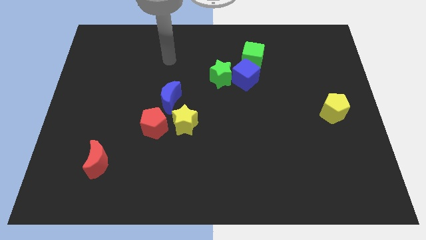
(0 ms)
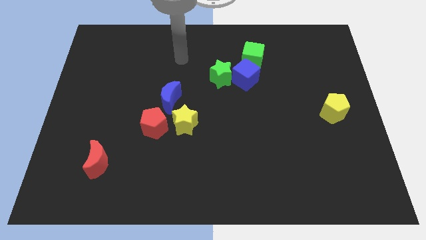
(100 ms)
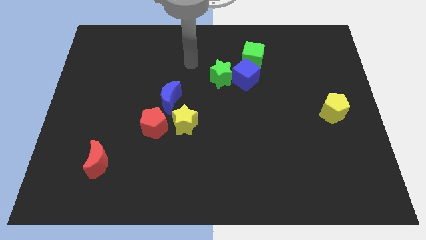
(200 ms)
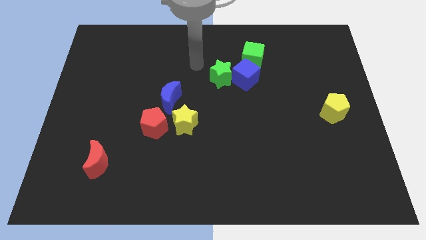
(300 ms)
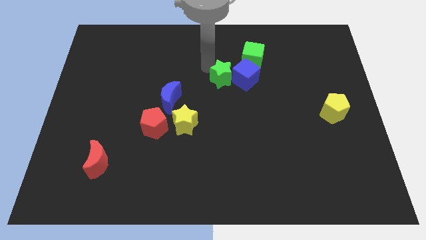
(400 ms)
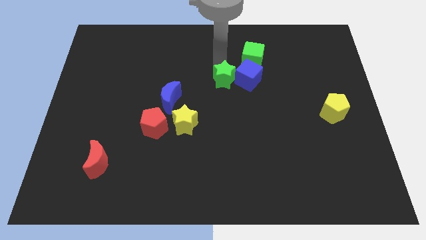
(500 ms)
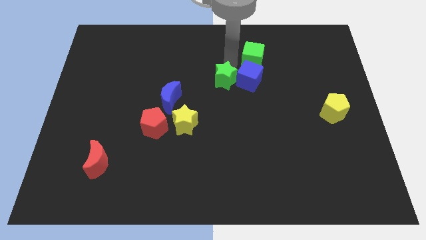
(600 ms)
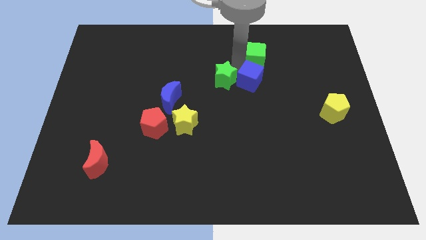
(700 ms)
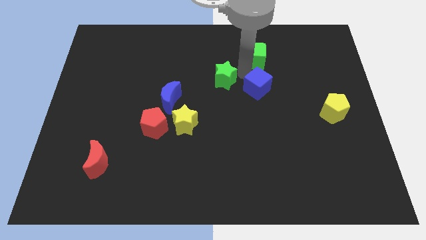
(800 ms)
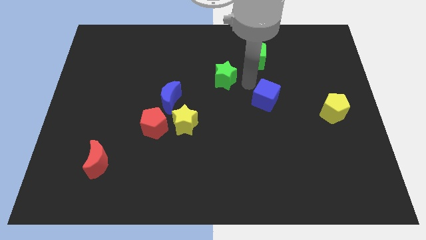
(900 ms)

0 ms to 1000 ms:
move the green star away from the blue cube

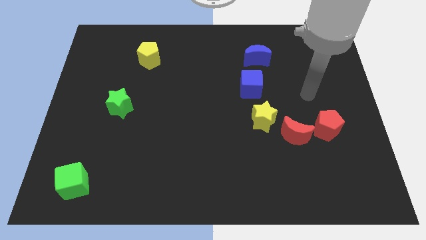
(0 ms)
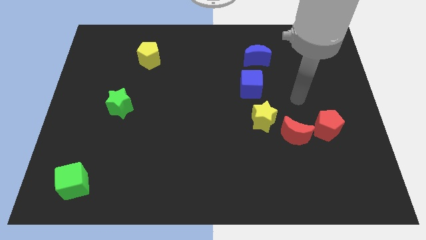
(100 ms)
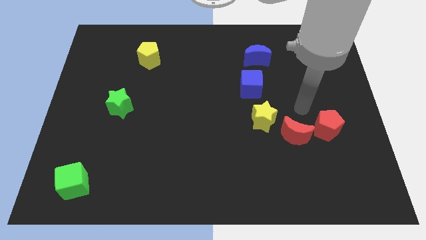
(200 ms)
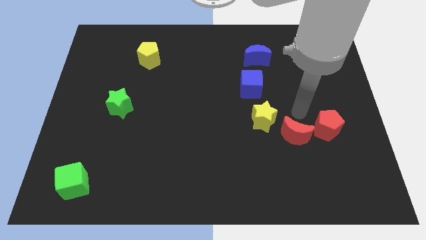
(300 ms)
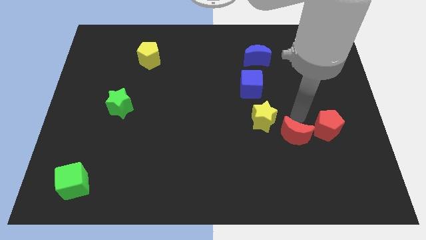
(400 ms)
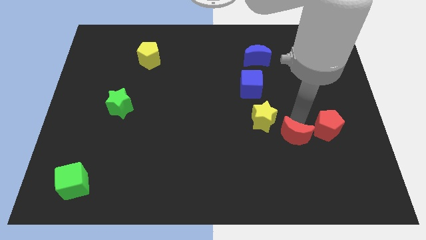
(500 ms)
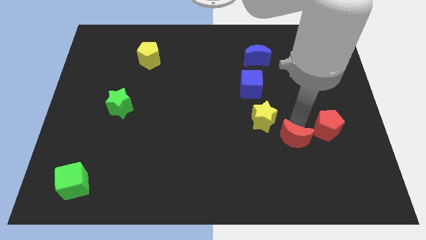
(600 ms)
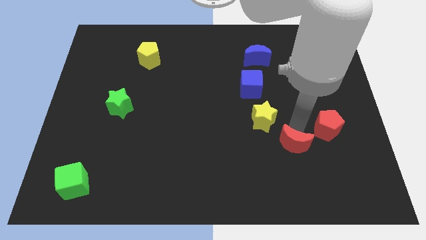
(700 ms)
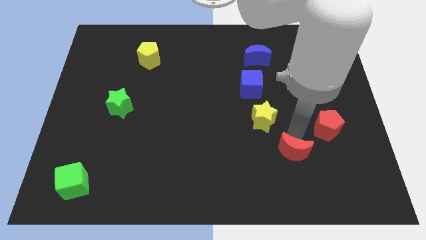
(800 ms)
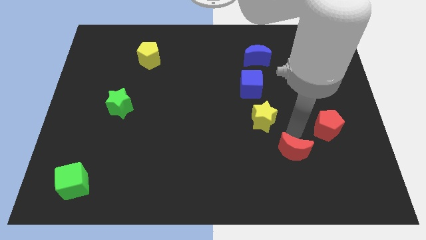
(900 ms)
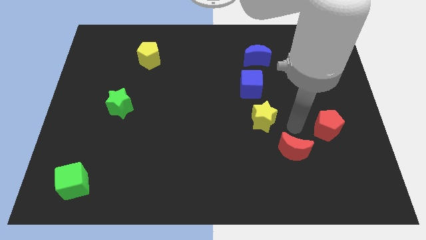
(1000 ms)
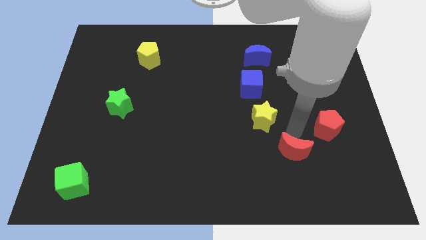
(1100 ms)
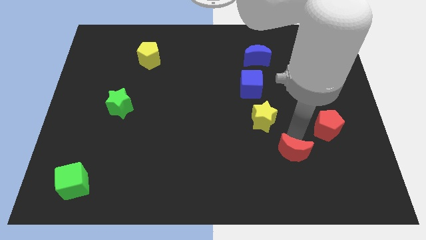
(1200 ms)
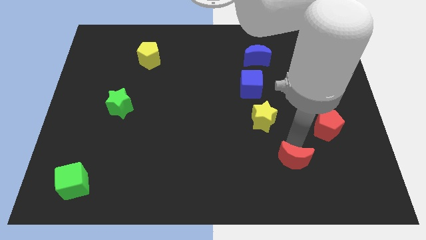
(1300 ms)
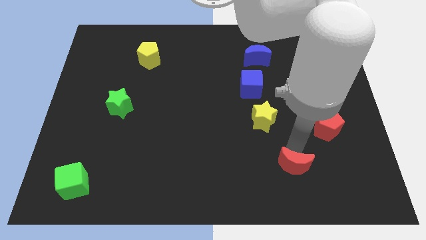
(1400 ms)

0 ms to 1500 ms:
separate the red moon from the yellow star and red pentagon

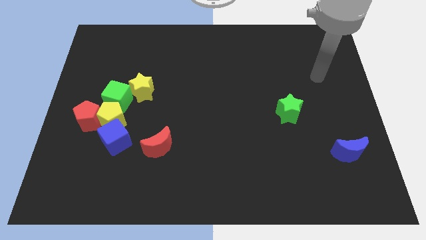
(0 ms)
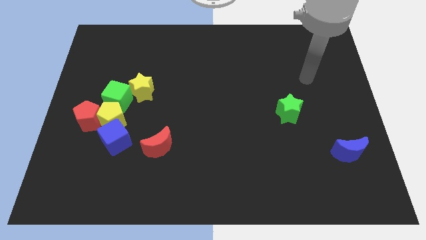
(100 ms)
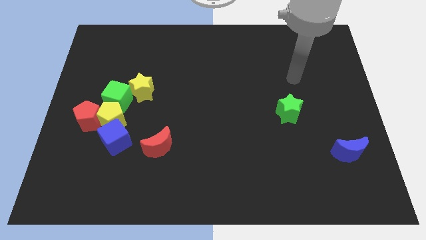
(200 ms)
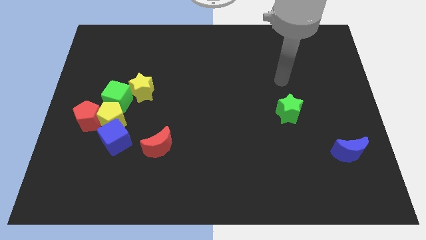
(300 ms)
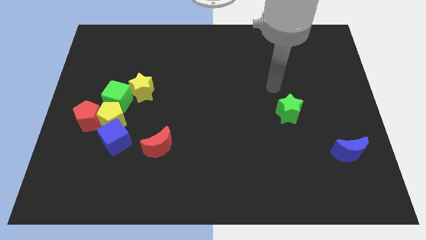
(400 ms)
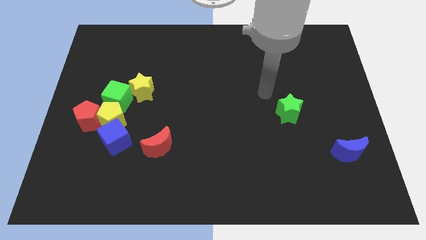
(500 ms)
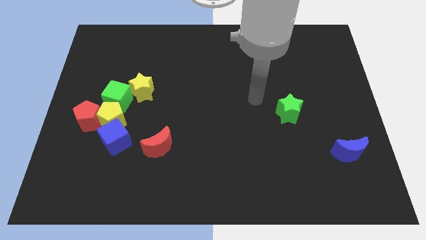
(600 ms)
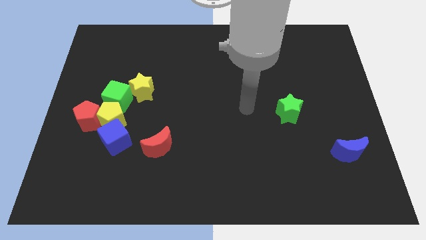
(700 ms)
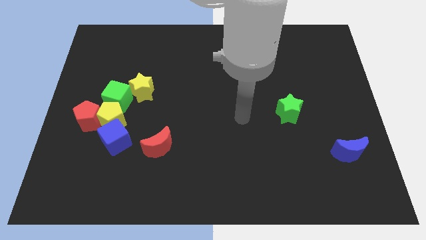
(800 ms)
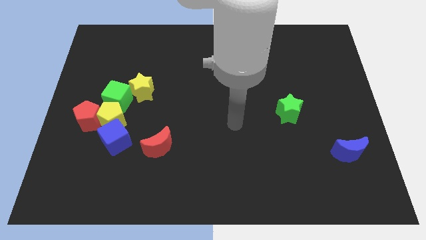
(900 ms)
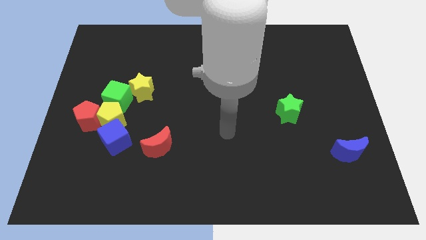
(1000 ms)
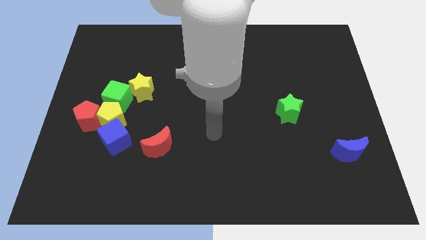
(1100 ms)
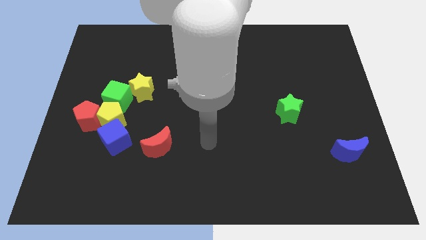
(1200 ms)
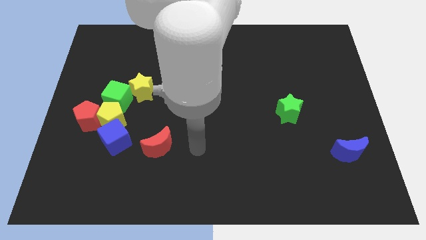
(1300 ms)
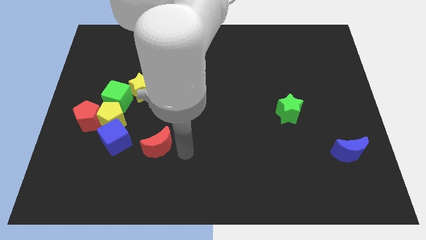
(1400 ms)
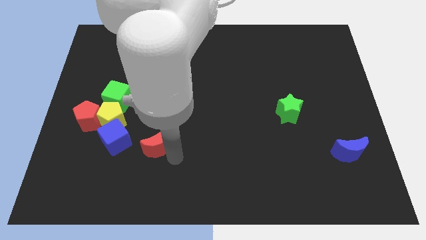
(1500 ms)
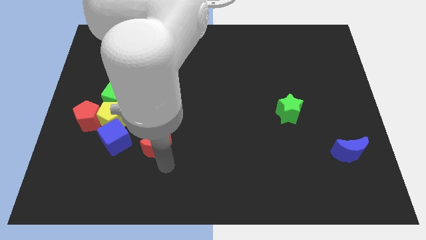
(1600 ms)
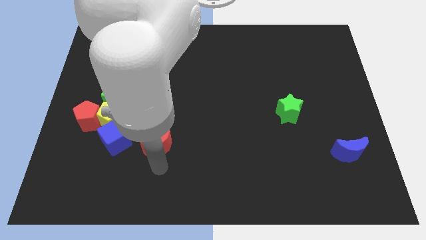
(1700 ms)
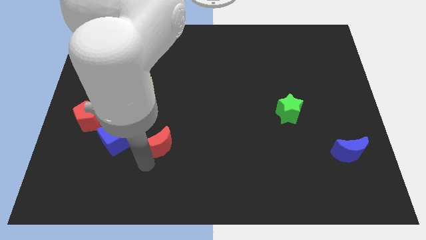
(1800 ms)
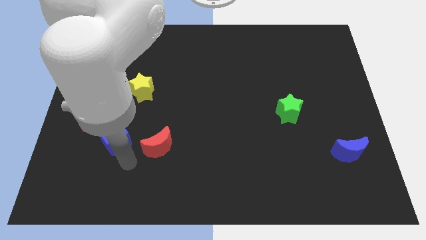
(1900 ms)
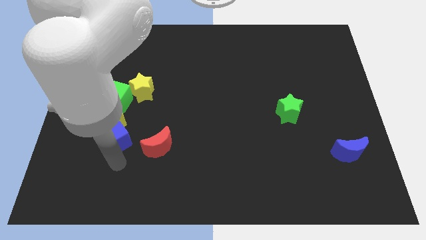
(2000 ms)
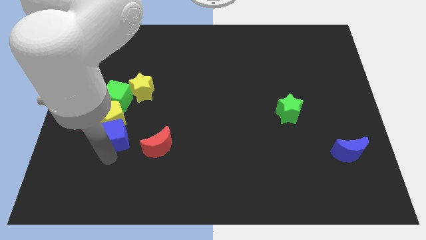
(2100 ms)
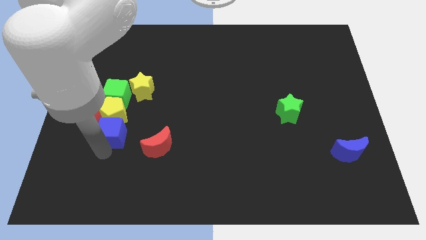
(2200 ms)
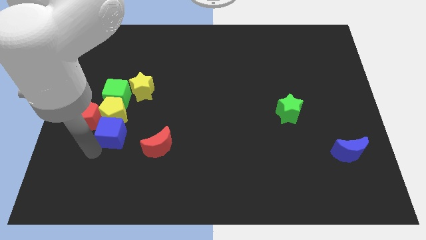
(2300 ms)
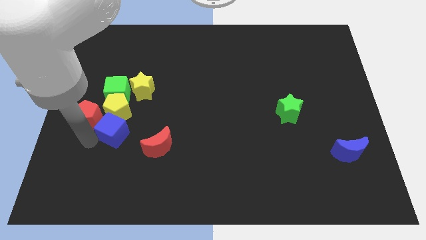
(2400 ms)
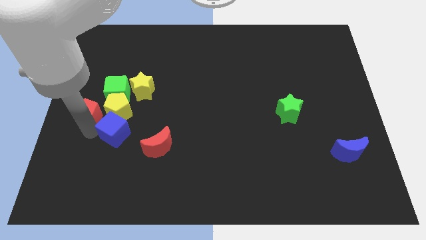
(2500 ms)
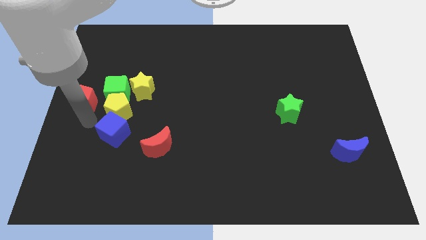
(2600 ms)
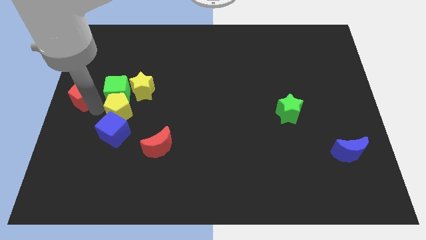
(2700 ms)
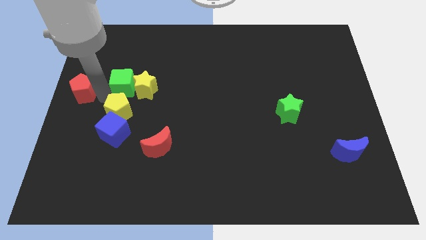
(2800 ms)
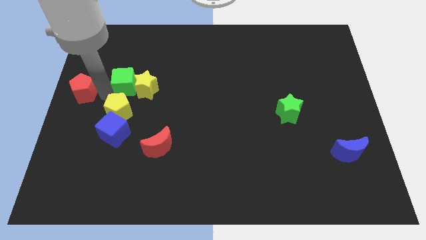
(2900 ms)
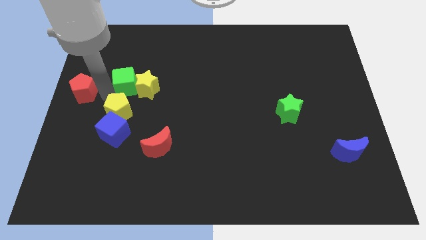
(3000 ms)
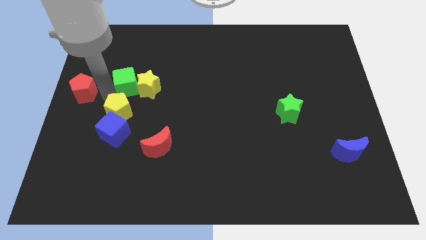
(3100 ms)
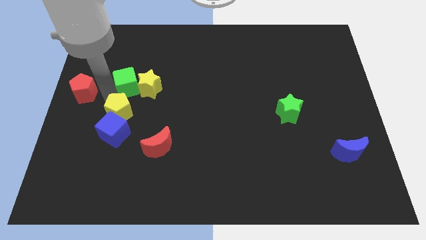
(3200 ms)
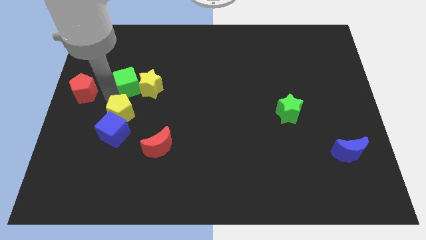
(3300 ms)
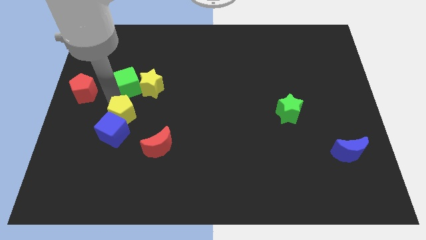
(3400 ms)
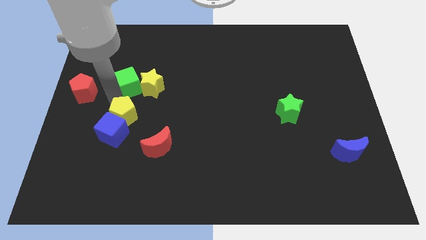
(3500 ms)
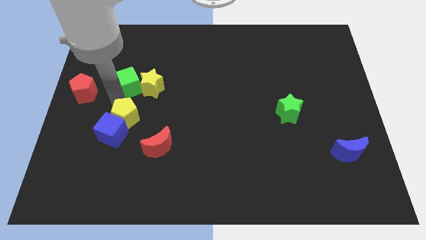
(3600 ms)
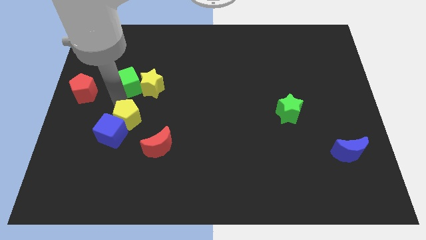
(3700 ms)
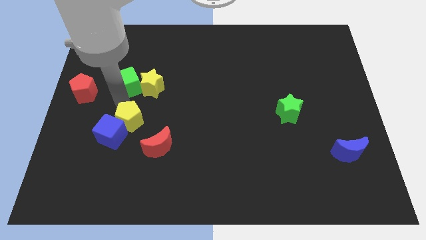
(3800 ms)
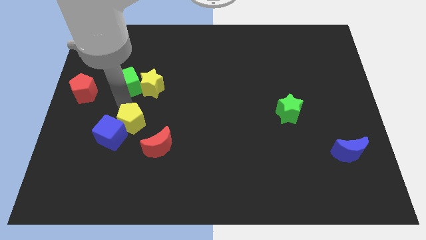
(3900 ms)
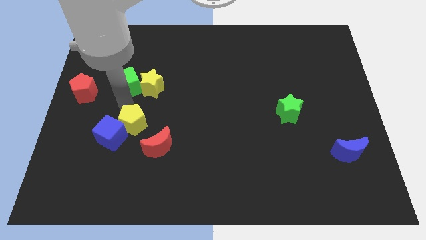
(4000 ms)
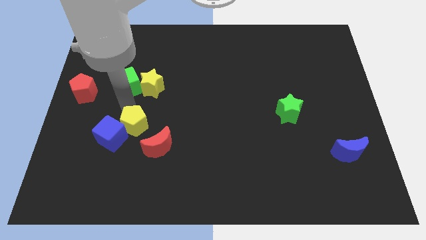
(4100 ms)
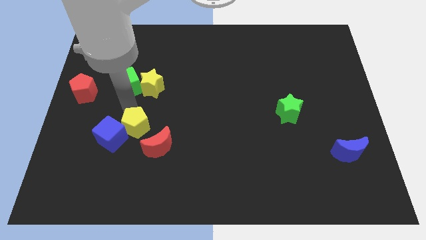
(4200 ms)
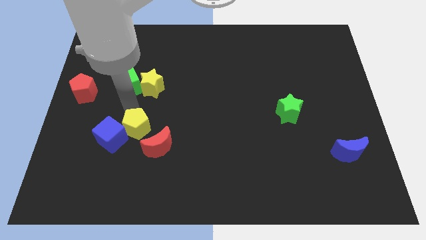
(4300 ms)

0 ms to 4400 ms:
separate the yellow pentagon from the red pentagon, blue cube, and green cube

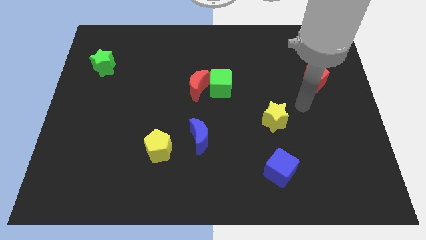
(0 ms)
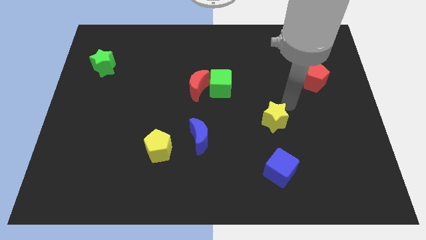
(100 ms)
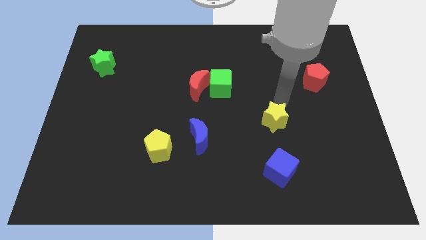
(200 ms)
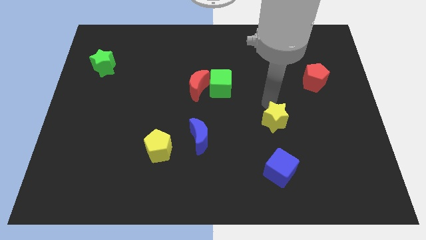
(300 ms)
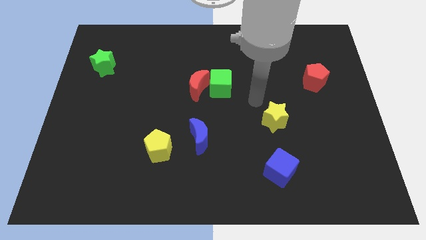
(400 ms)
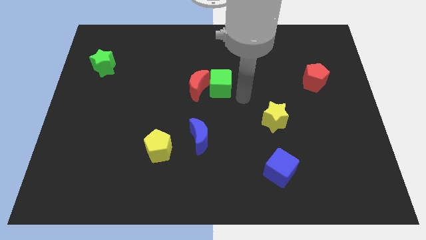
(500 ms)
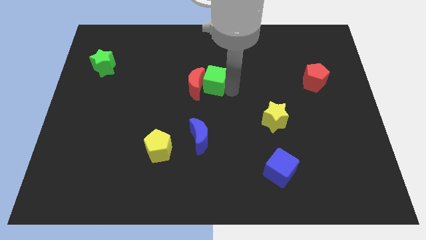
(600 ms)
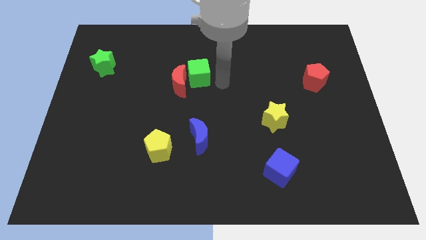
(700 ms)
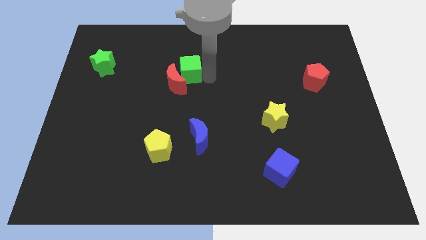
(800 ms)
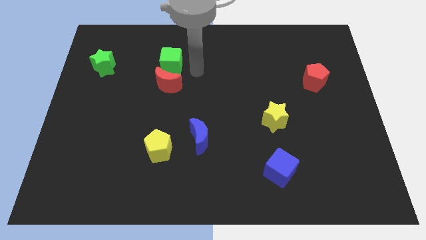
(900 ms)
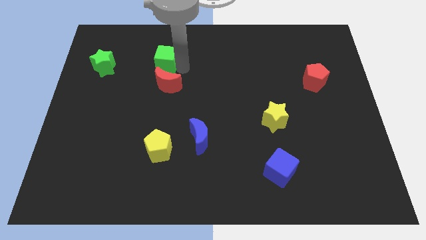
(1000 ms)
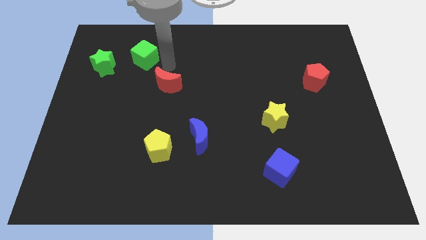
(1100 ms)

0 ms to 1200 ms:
pull the red moon apart from the green cube

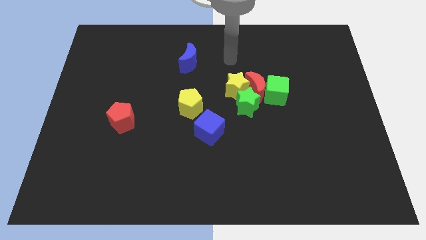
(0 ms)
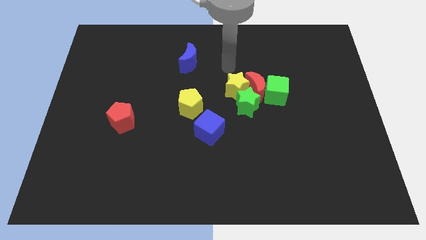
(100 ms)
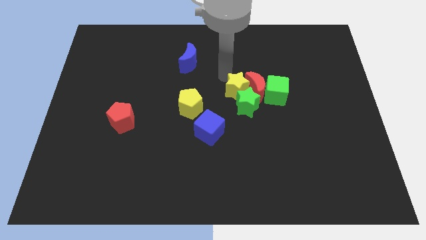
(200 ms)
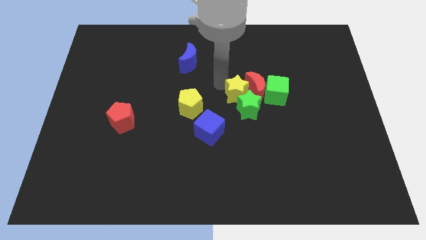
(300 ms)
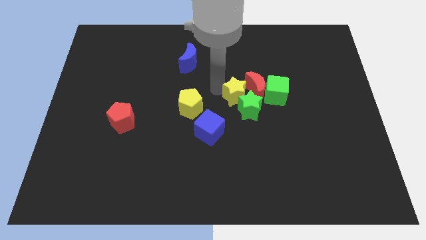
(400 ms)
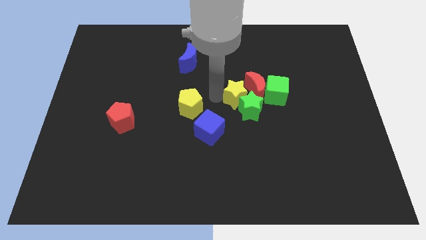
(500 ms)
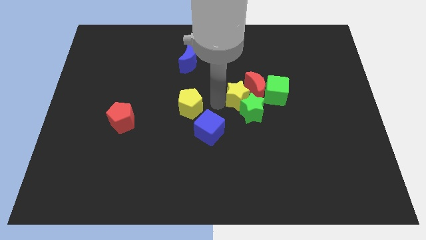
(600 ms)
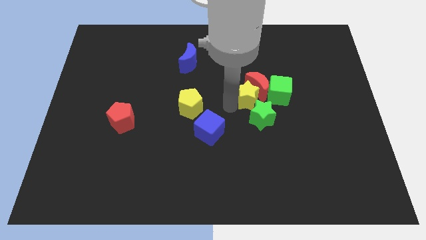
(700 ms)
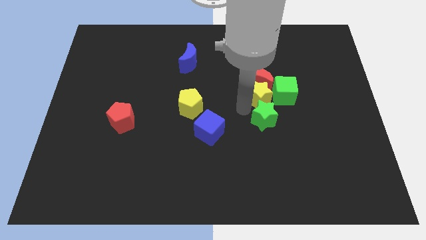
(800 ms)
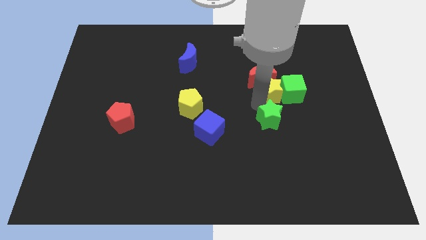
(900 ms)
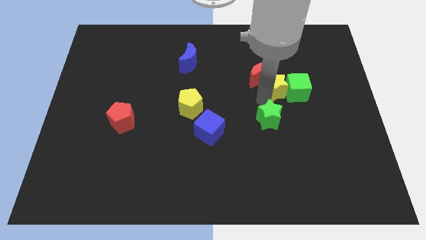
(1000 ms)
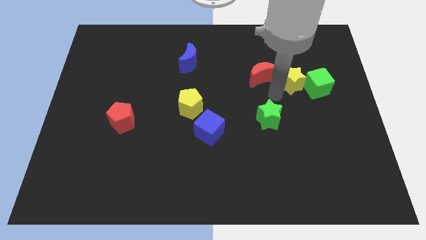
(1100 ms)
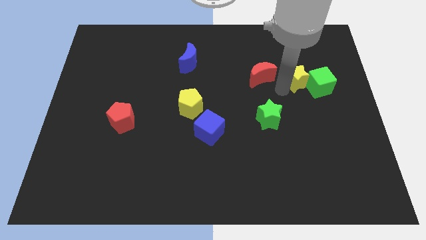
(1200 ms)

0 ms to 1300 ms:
separate the red moon from the clump
